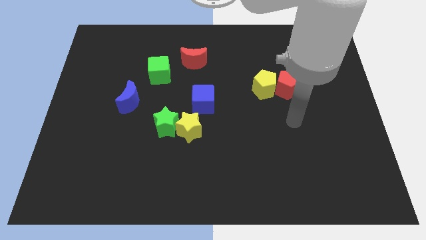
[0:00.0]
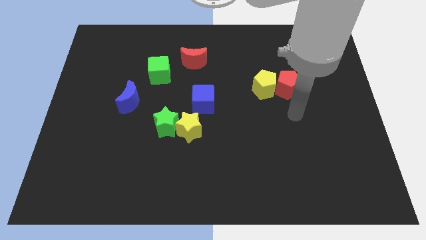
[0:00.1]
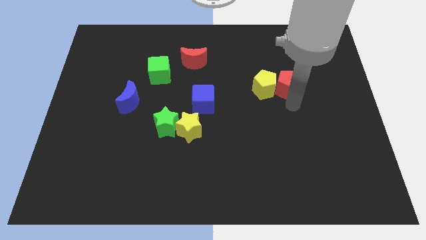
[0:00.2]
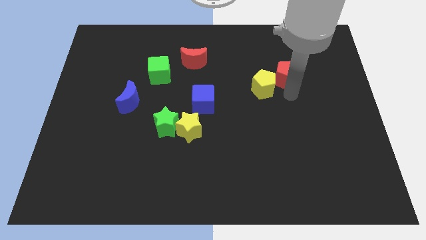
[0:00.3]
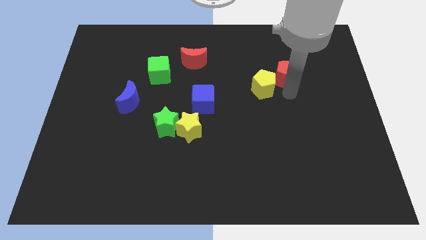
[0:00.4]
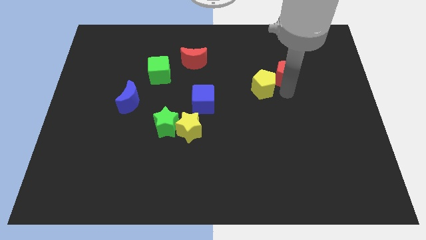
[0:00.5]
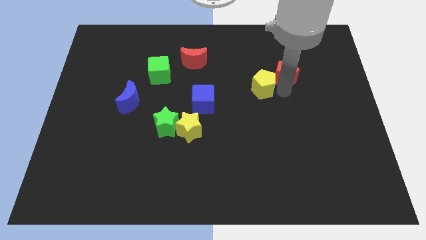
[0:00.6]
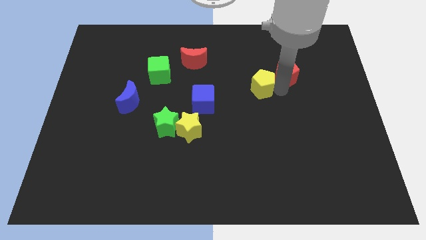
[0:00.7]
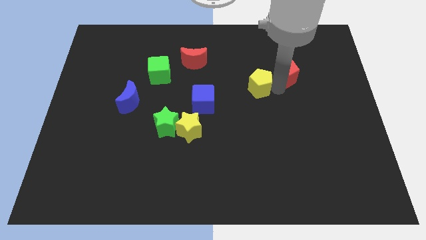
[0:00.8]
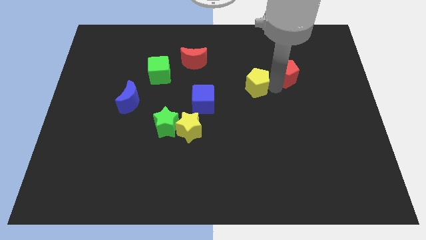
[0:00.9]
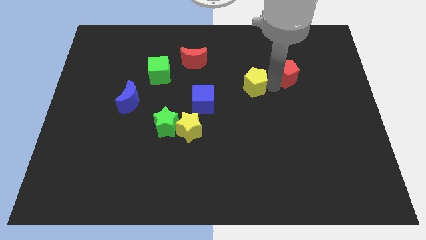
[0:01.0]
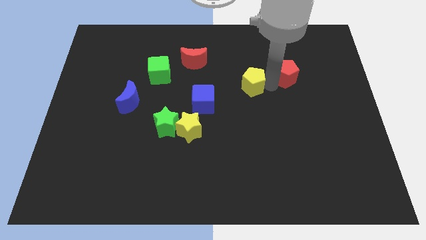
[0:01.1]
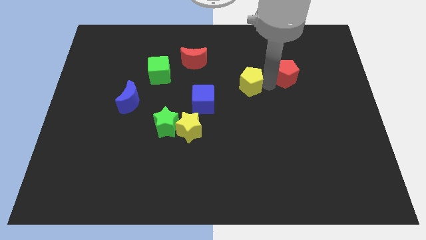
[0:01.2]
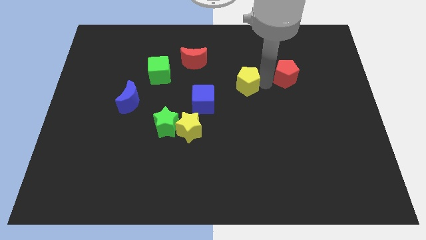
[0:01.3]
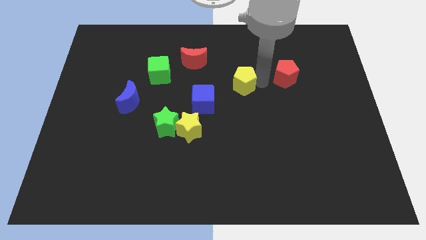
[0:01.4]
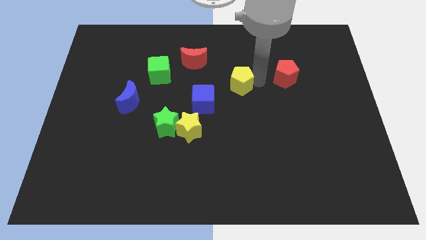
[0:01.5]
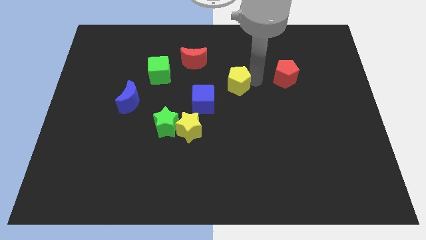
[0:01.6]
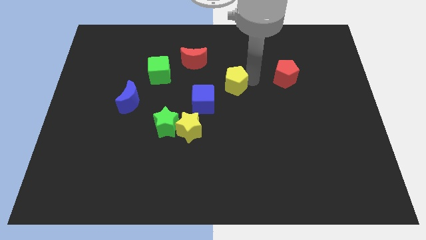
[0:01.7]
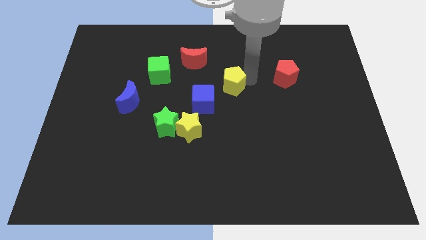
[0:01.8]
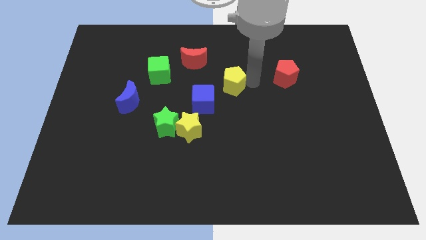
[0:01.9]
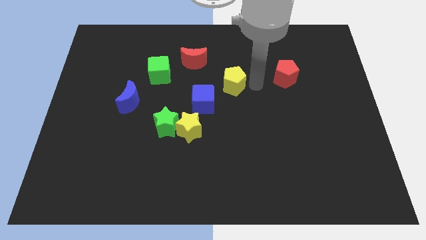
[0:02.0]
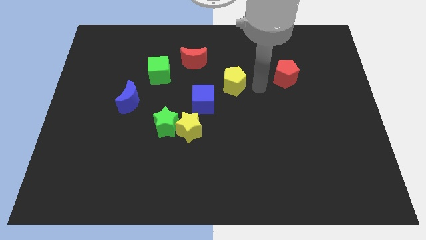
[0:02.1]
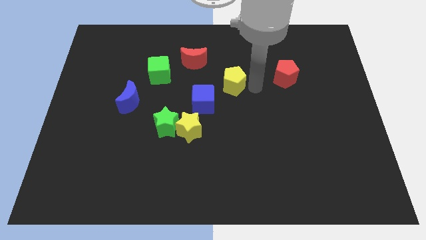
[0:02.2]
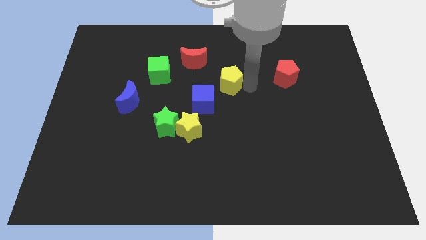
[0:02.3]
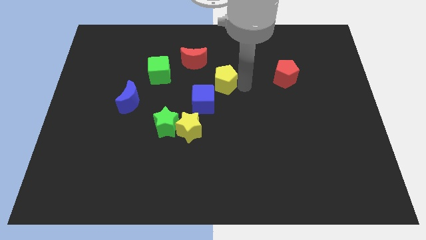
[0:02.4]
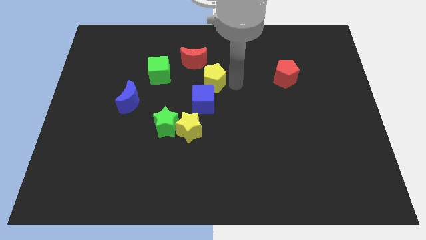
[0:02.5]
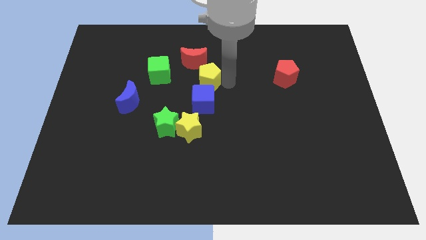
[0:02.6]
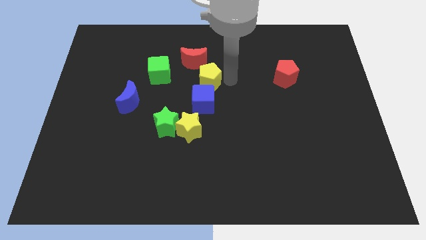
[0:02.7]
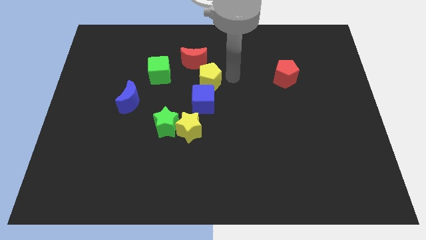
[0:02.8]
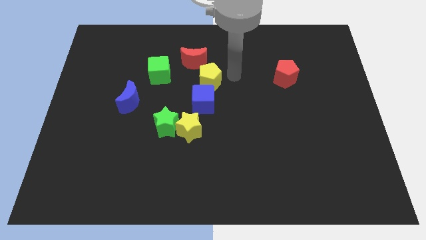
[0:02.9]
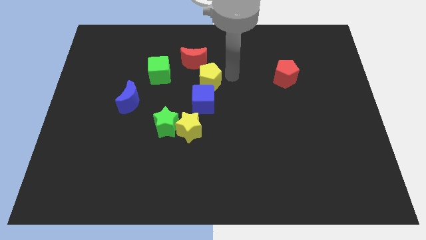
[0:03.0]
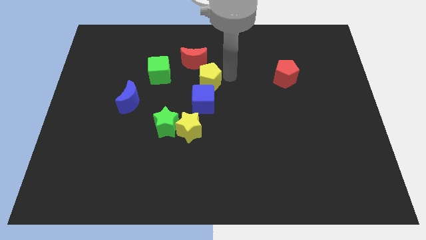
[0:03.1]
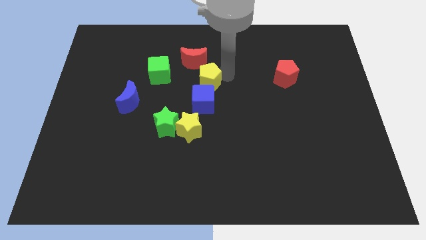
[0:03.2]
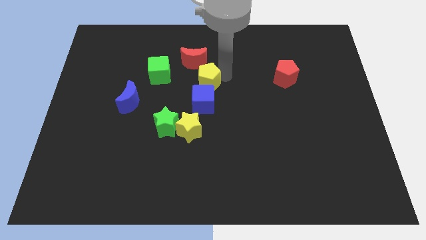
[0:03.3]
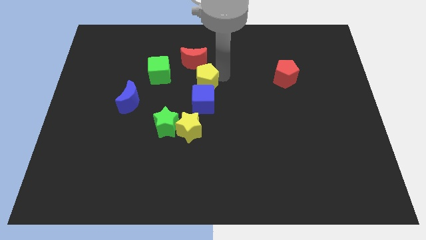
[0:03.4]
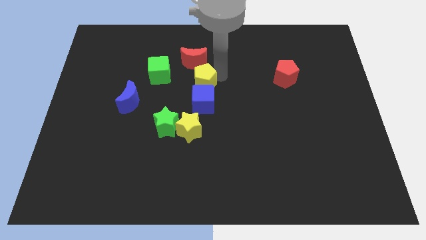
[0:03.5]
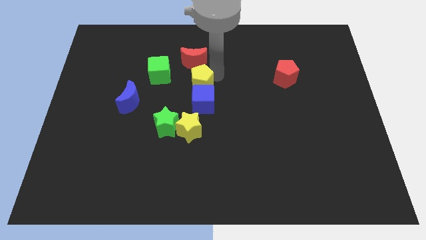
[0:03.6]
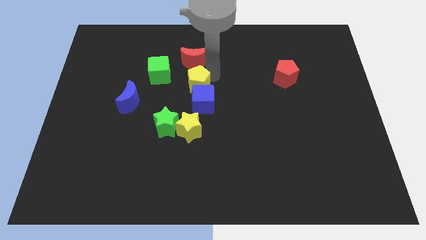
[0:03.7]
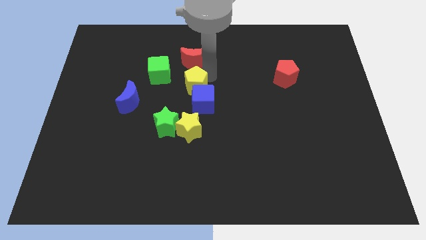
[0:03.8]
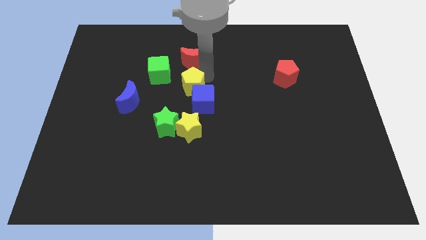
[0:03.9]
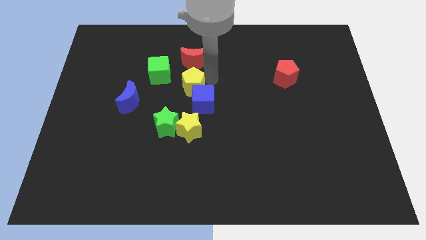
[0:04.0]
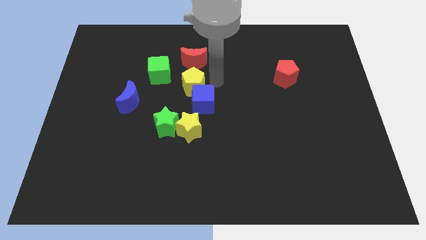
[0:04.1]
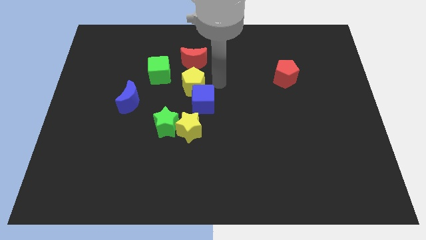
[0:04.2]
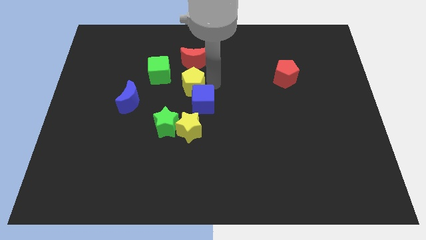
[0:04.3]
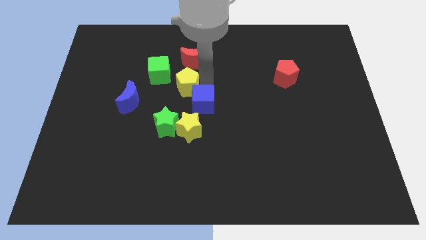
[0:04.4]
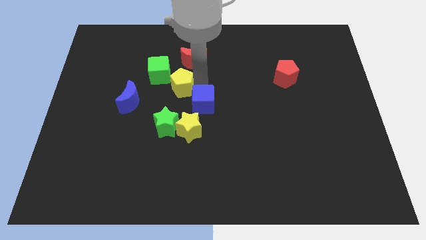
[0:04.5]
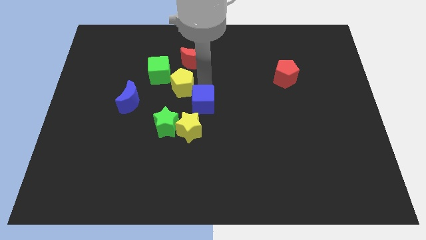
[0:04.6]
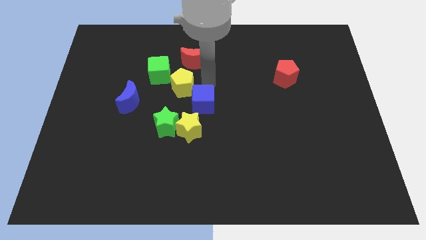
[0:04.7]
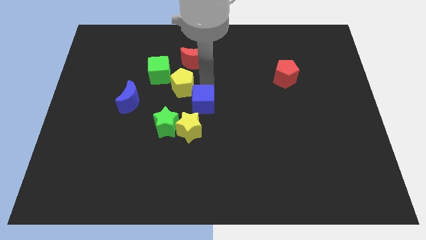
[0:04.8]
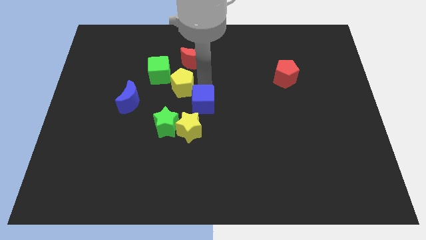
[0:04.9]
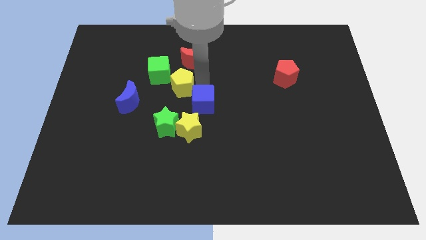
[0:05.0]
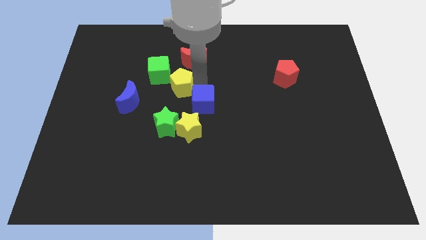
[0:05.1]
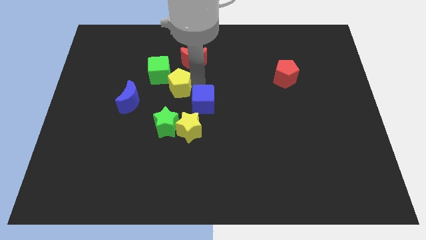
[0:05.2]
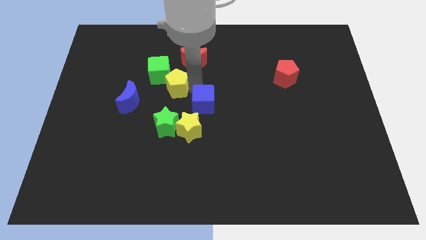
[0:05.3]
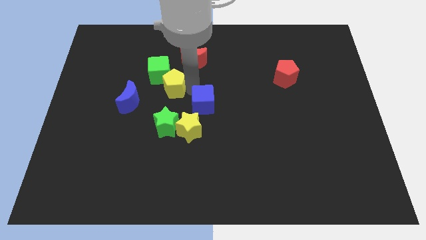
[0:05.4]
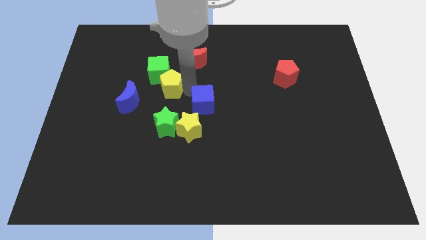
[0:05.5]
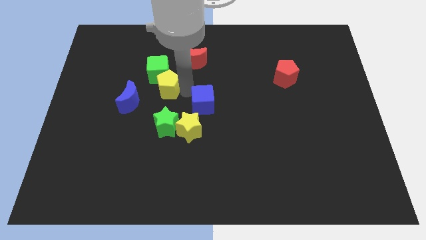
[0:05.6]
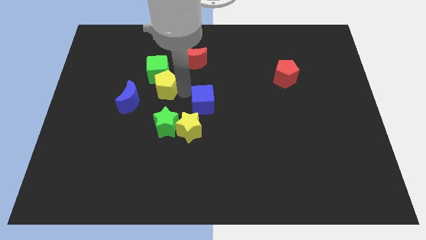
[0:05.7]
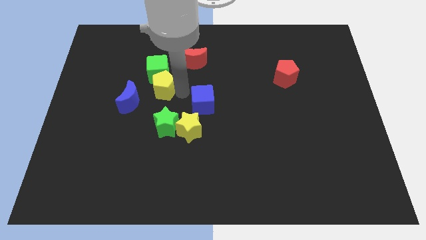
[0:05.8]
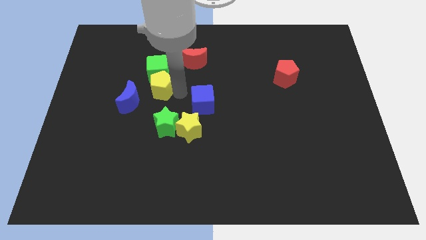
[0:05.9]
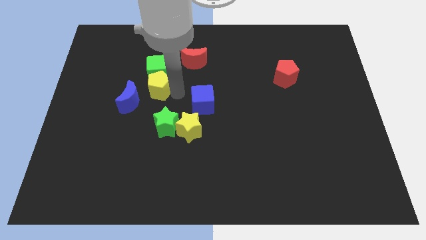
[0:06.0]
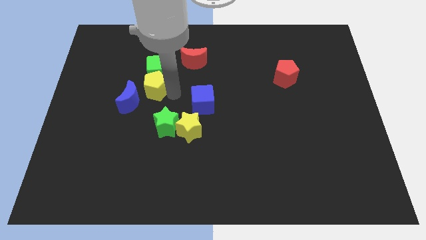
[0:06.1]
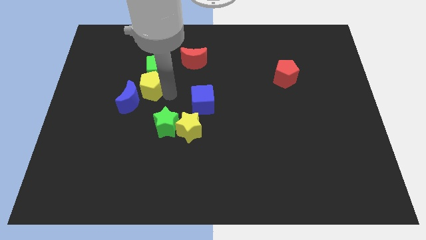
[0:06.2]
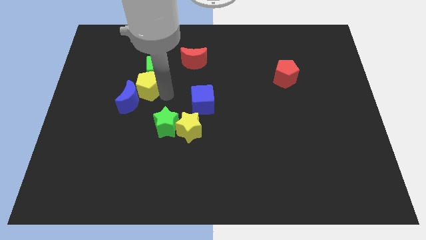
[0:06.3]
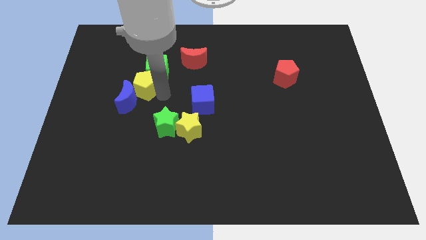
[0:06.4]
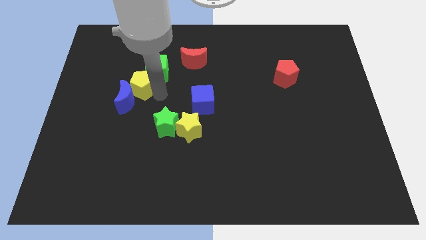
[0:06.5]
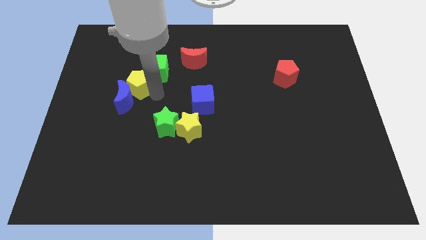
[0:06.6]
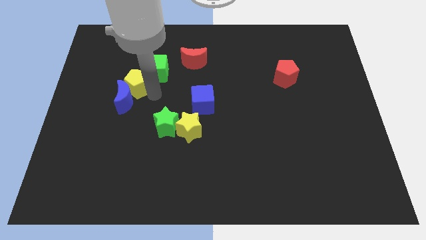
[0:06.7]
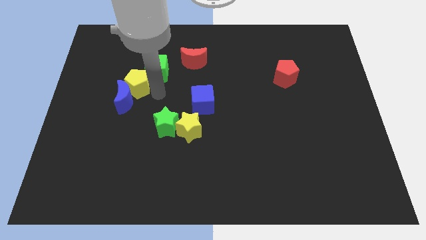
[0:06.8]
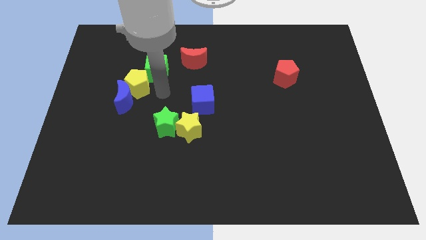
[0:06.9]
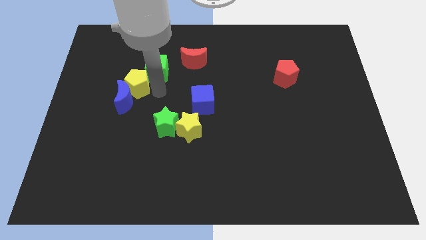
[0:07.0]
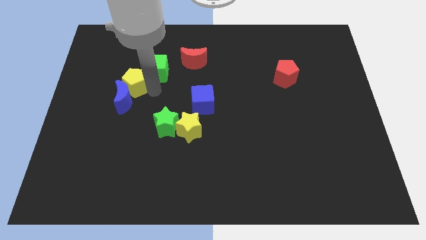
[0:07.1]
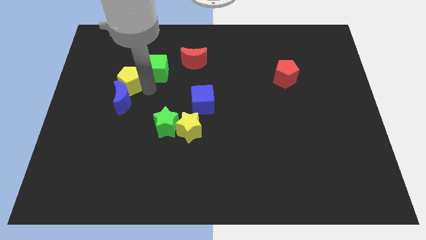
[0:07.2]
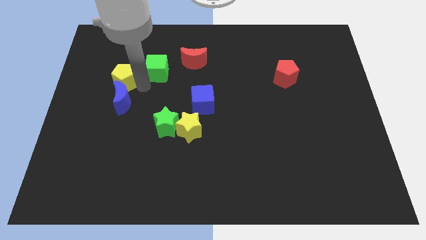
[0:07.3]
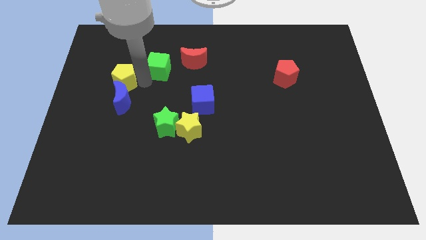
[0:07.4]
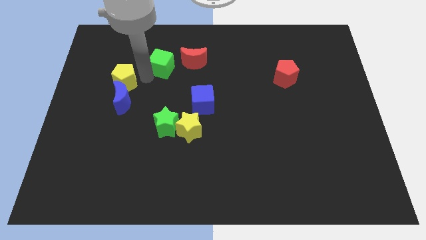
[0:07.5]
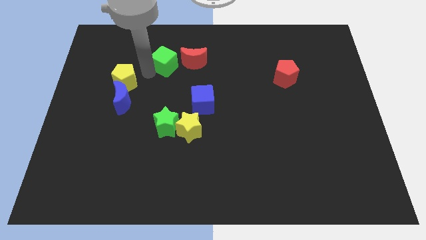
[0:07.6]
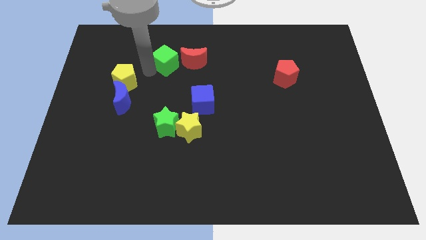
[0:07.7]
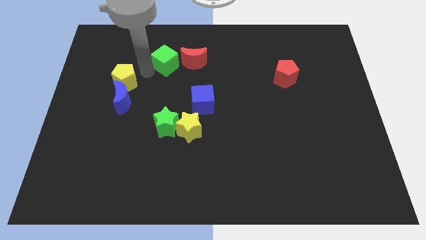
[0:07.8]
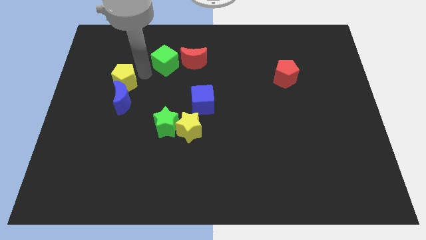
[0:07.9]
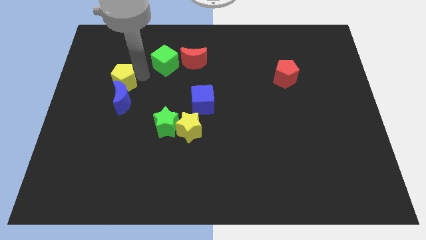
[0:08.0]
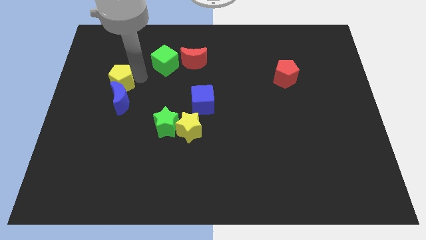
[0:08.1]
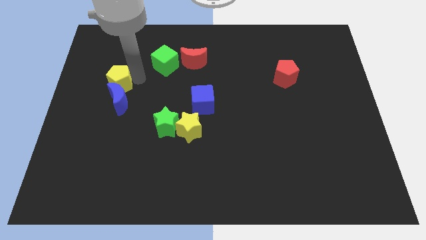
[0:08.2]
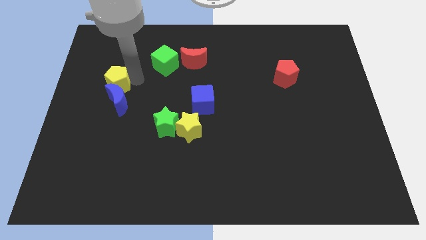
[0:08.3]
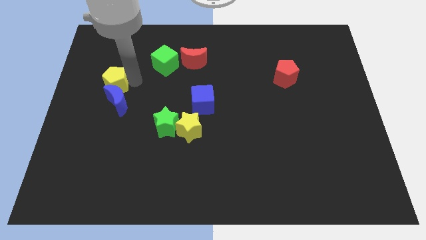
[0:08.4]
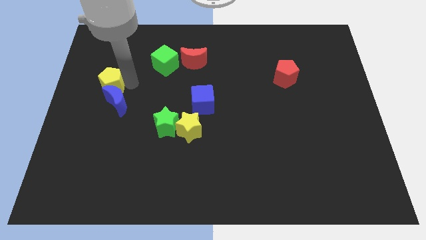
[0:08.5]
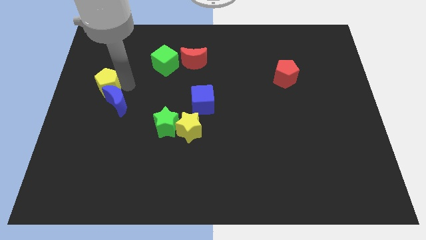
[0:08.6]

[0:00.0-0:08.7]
move the yellow pentagon to the left side
